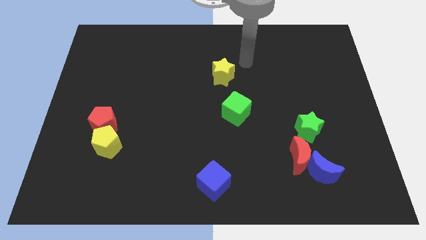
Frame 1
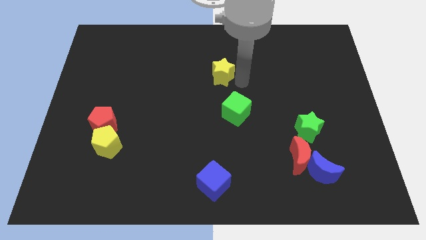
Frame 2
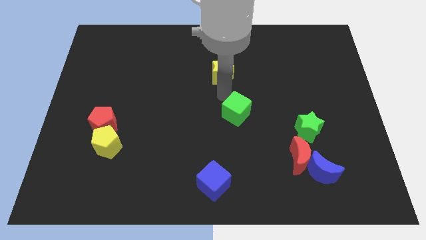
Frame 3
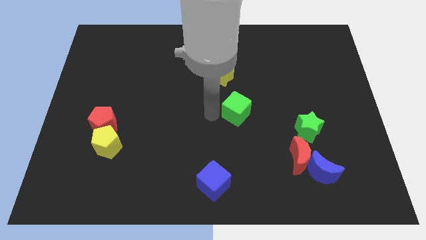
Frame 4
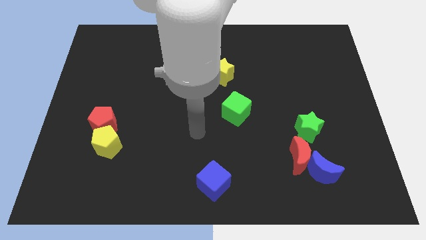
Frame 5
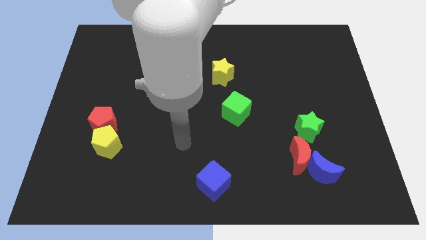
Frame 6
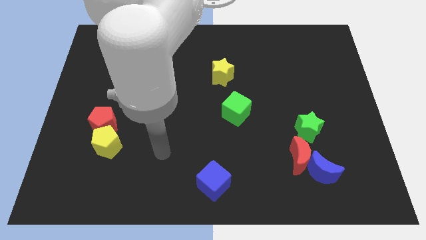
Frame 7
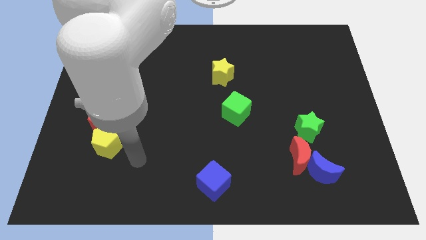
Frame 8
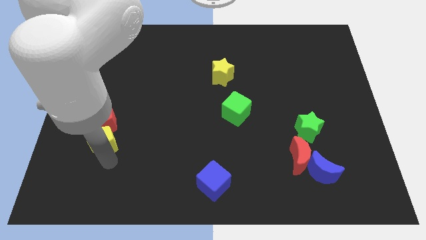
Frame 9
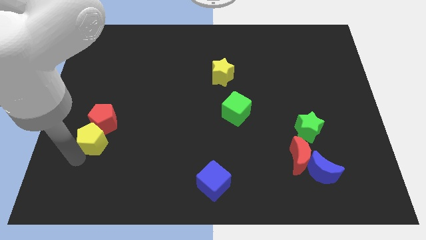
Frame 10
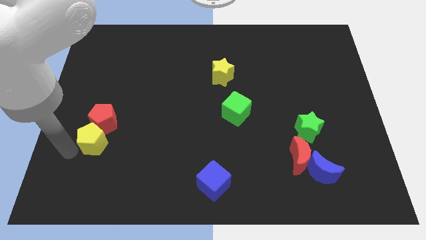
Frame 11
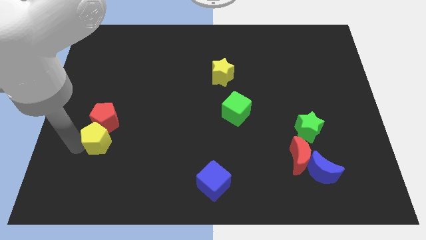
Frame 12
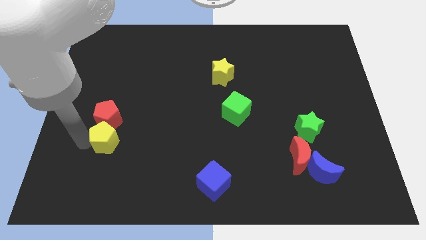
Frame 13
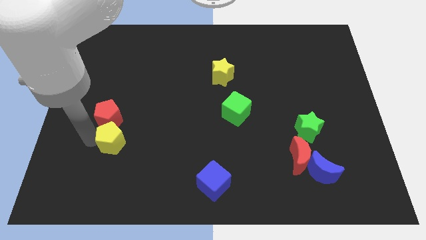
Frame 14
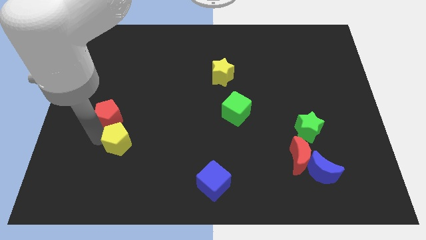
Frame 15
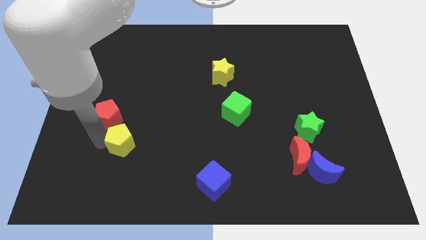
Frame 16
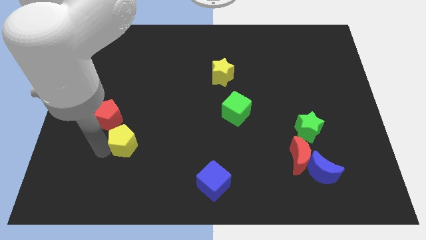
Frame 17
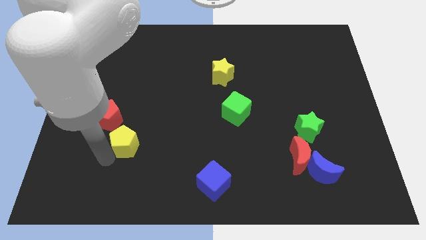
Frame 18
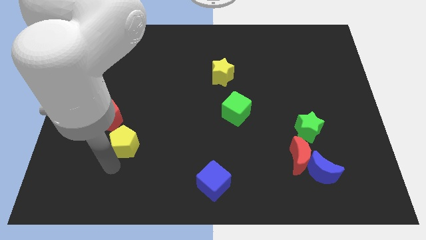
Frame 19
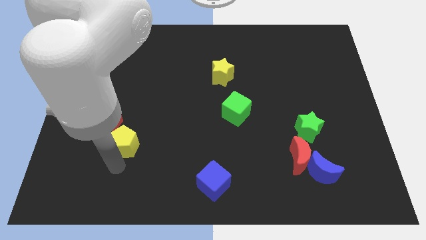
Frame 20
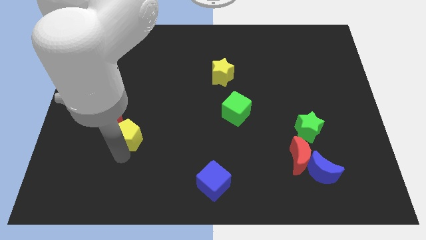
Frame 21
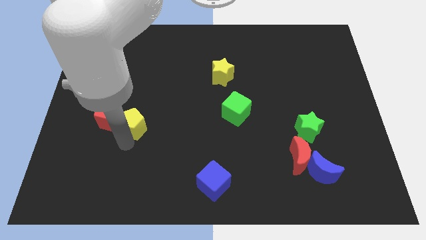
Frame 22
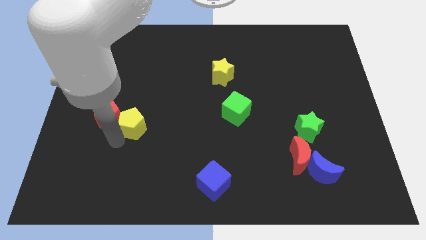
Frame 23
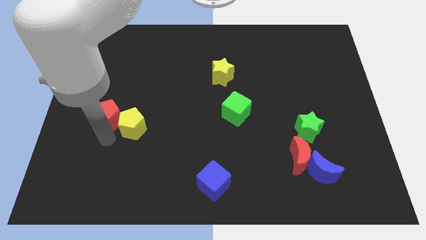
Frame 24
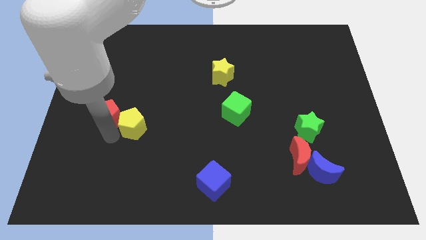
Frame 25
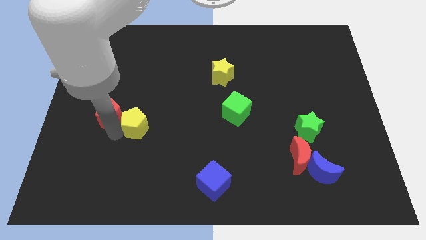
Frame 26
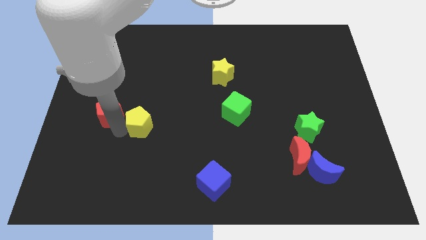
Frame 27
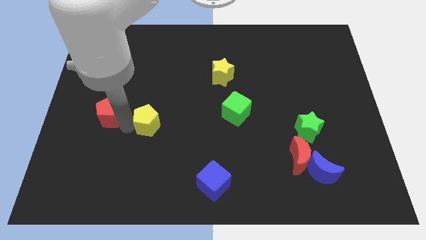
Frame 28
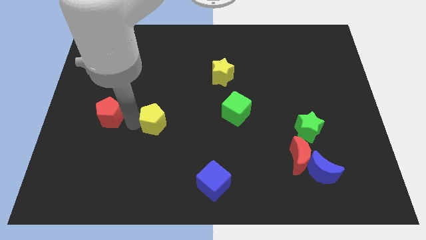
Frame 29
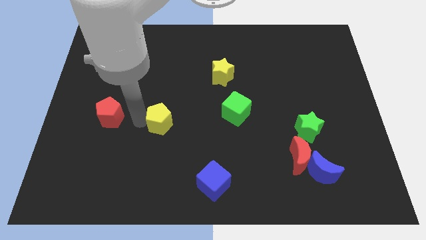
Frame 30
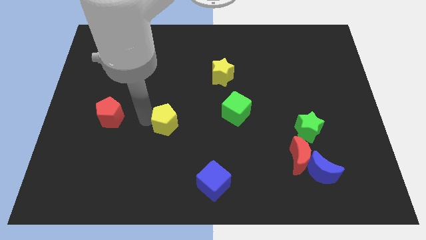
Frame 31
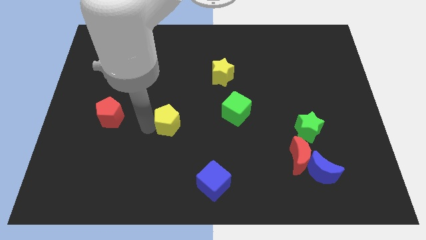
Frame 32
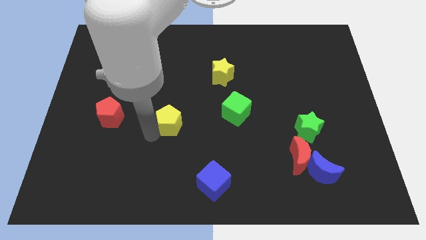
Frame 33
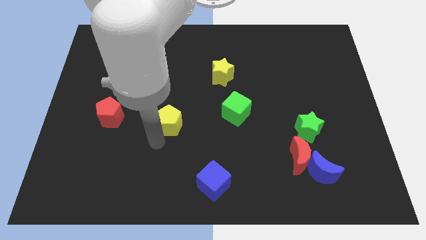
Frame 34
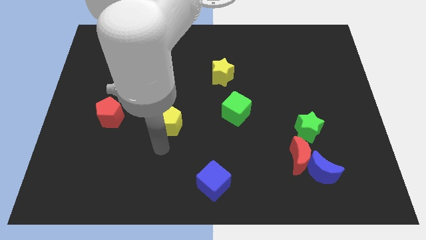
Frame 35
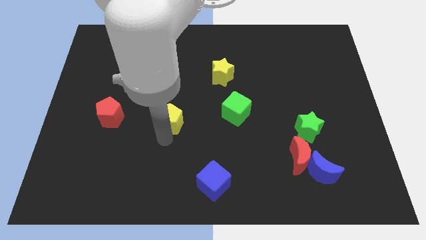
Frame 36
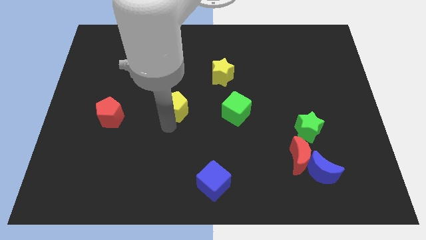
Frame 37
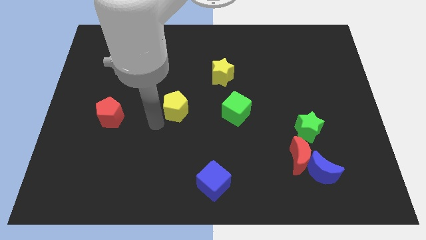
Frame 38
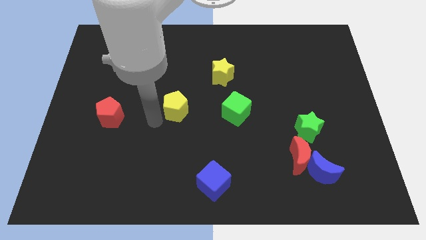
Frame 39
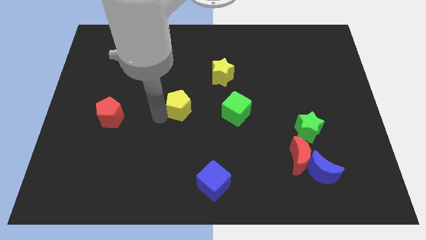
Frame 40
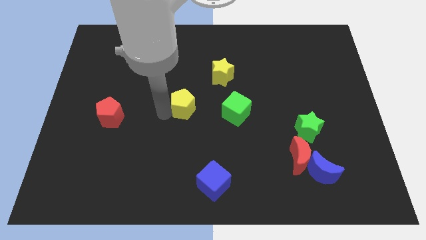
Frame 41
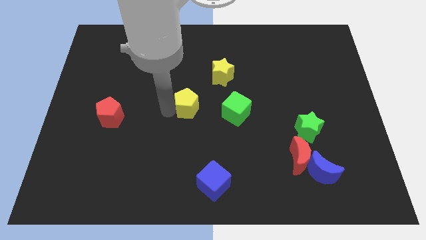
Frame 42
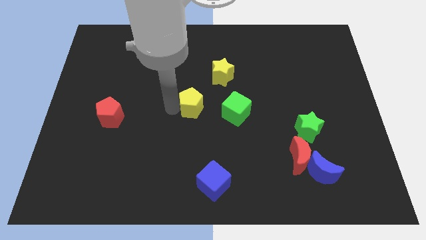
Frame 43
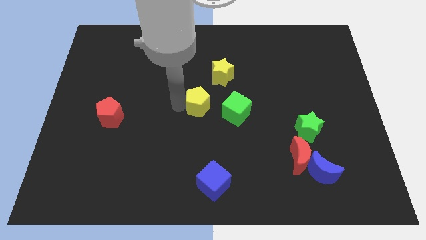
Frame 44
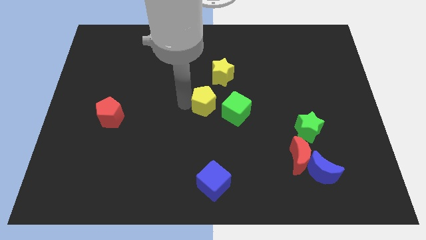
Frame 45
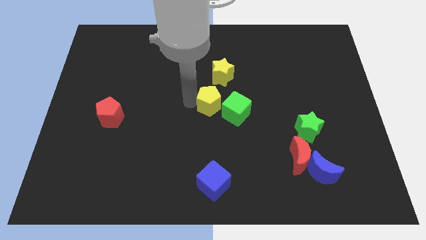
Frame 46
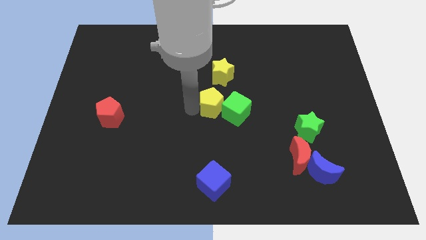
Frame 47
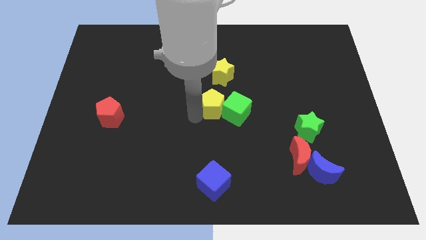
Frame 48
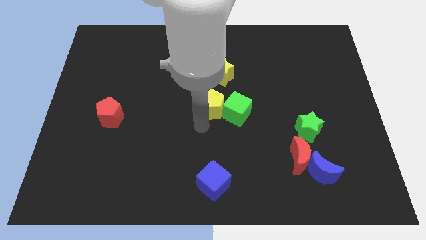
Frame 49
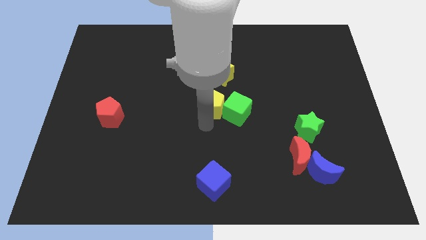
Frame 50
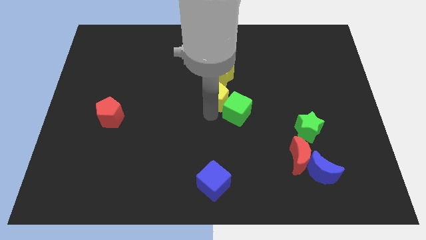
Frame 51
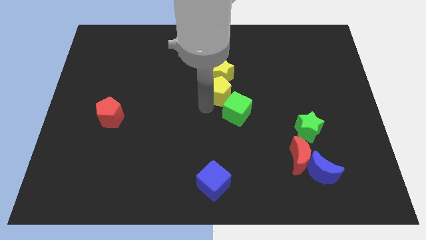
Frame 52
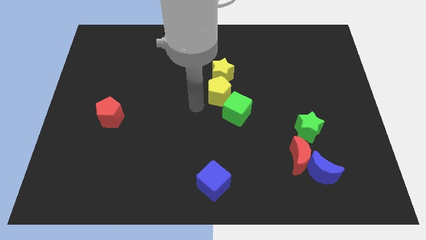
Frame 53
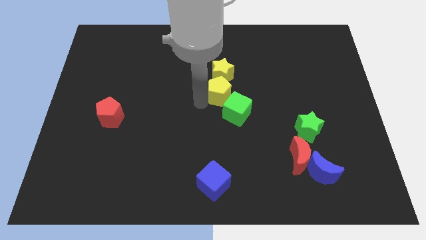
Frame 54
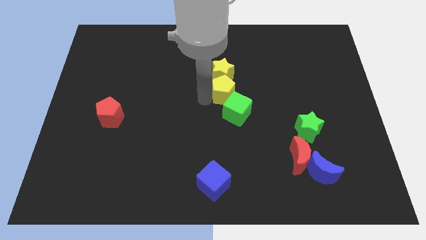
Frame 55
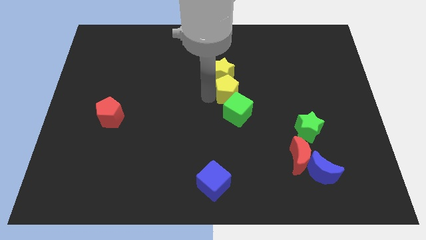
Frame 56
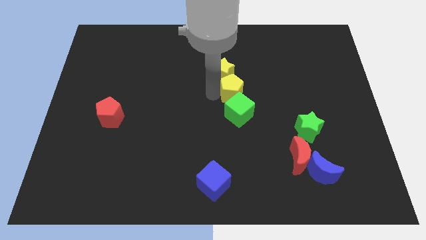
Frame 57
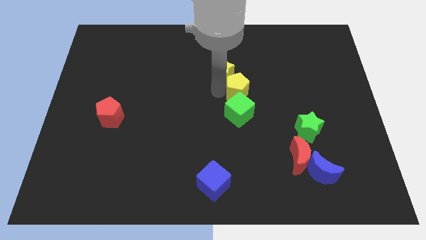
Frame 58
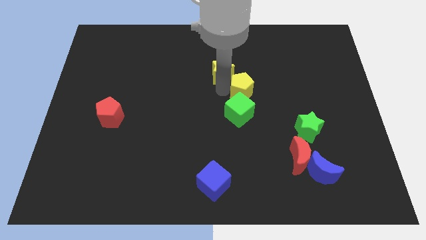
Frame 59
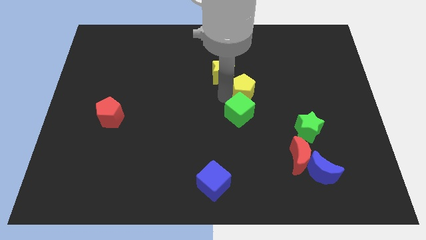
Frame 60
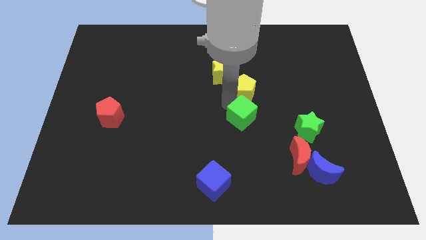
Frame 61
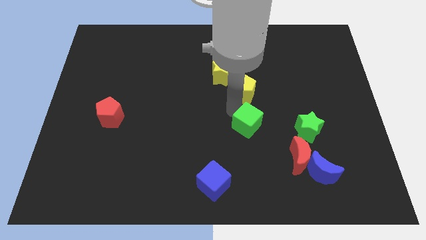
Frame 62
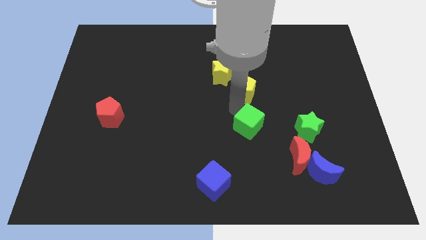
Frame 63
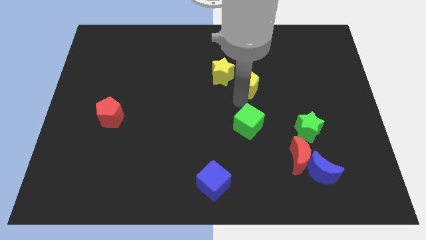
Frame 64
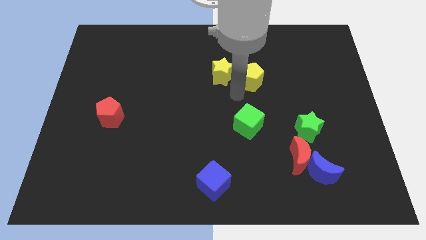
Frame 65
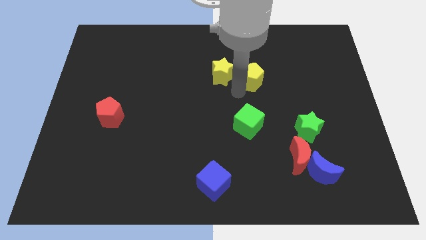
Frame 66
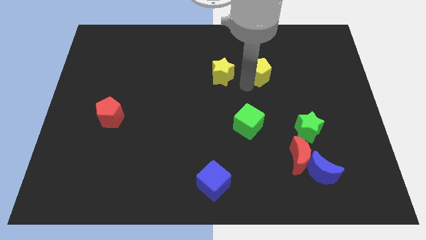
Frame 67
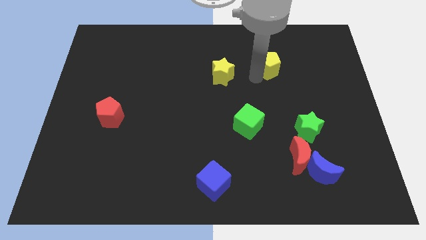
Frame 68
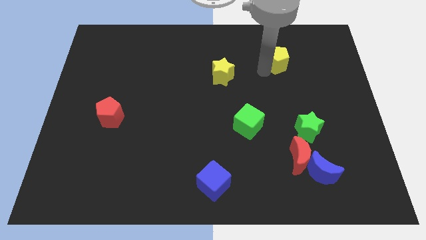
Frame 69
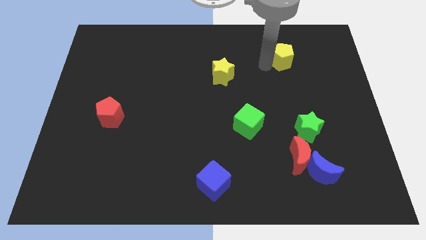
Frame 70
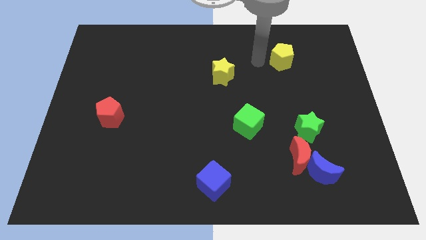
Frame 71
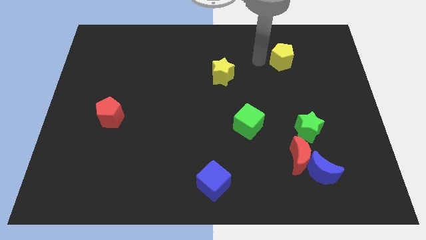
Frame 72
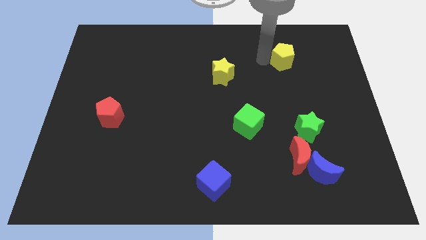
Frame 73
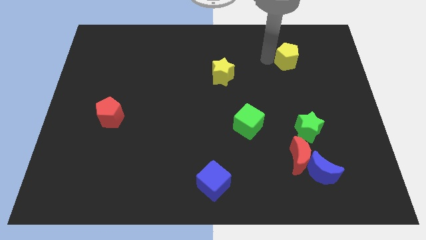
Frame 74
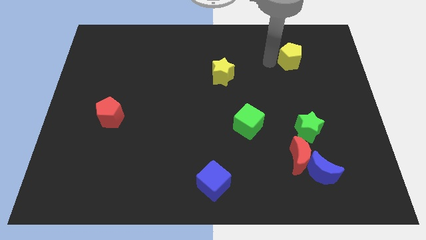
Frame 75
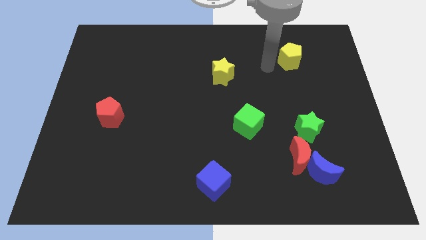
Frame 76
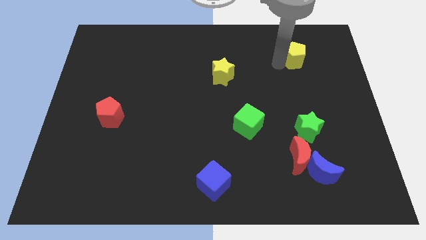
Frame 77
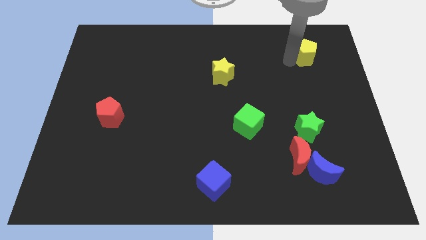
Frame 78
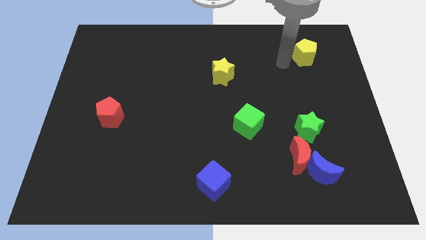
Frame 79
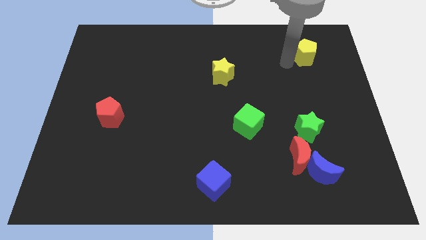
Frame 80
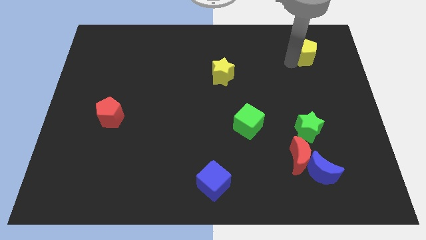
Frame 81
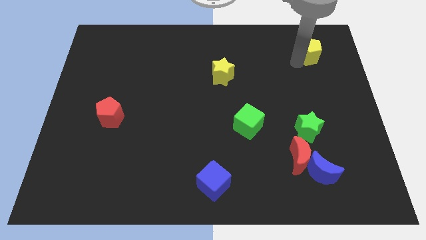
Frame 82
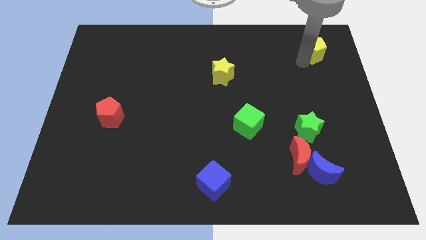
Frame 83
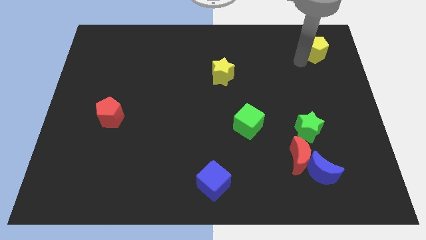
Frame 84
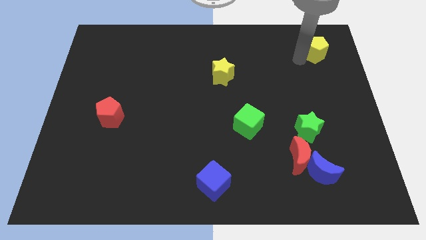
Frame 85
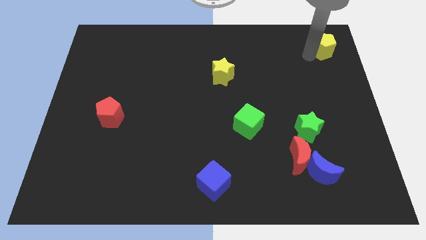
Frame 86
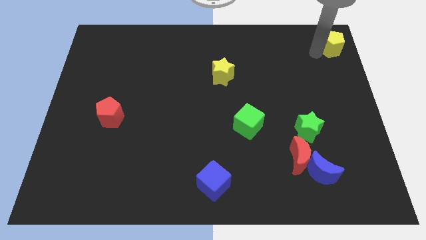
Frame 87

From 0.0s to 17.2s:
slide the yellow pentagon to the top right
